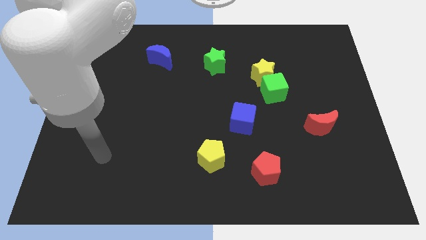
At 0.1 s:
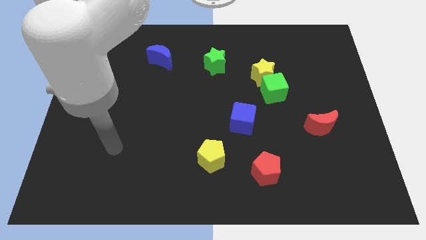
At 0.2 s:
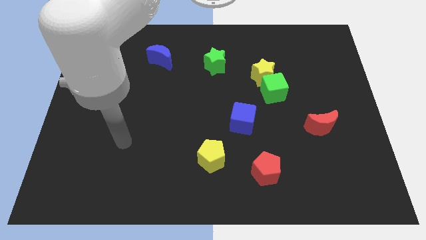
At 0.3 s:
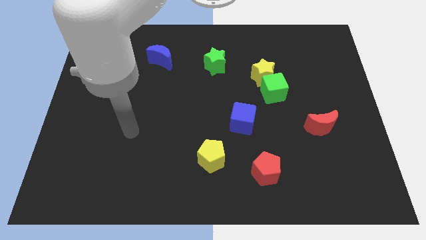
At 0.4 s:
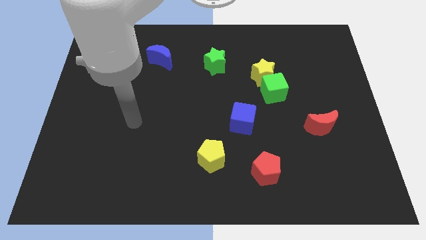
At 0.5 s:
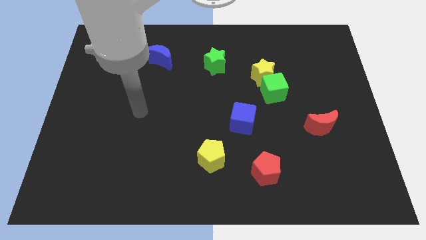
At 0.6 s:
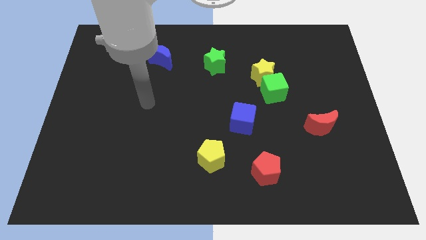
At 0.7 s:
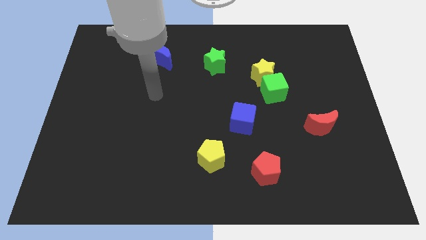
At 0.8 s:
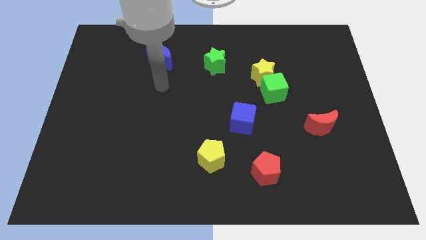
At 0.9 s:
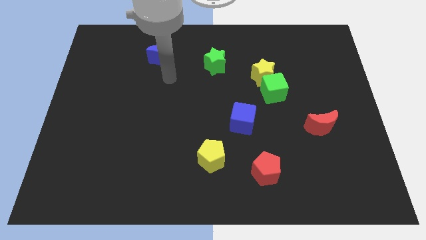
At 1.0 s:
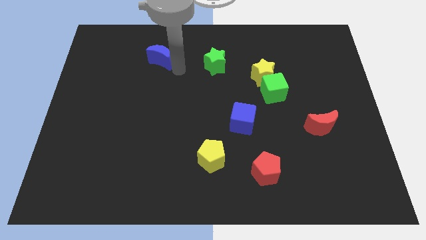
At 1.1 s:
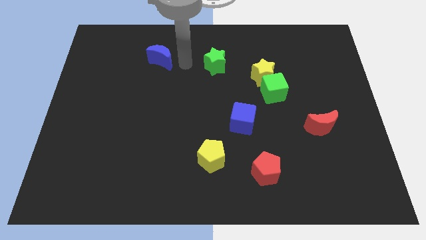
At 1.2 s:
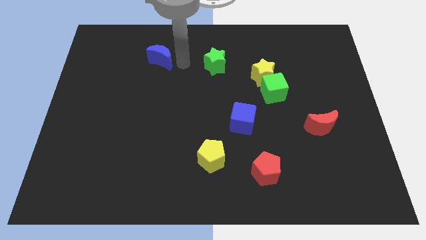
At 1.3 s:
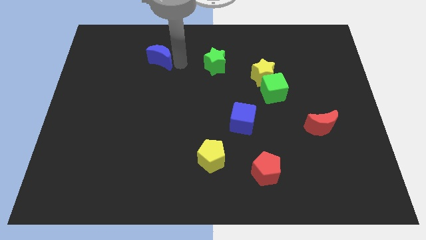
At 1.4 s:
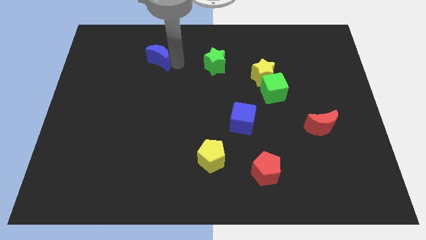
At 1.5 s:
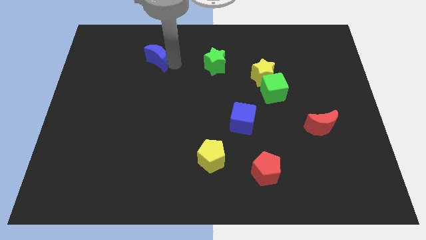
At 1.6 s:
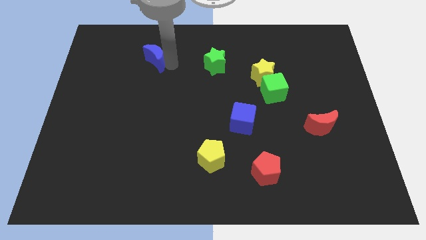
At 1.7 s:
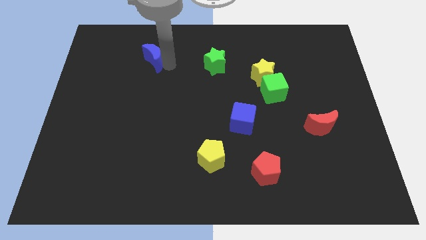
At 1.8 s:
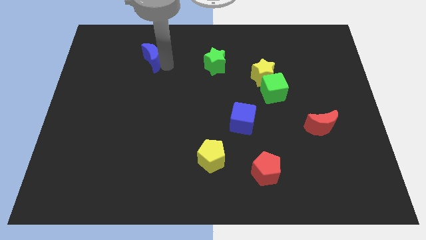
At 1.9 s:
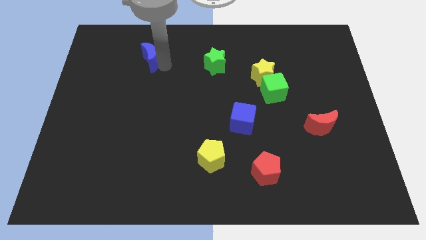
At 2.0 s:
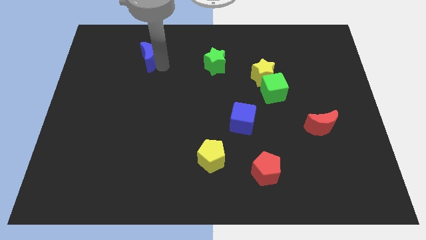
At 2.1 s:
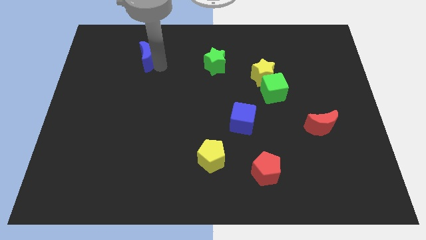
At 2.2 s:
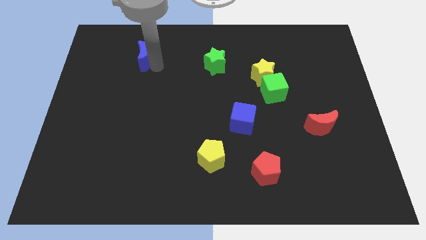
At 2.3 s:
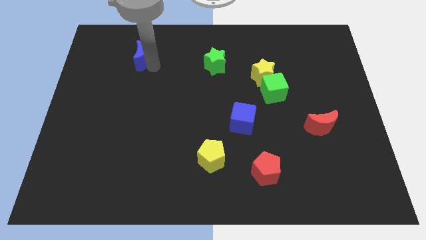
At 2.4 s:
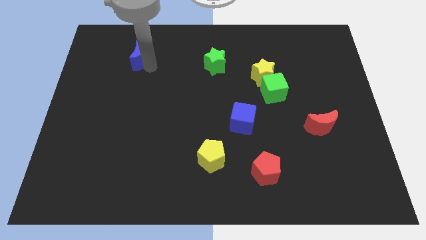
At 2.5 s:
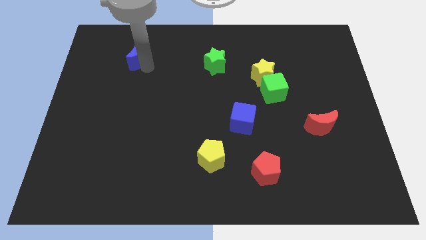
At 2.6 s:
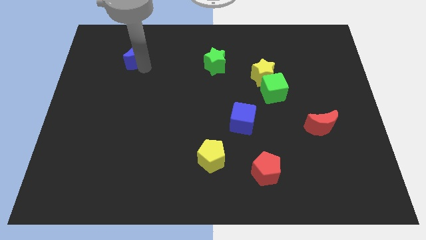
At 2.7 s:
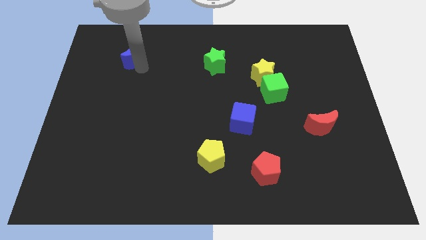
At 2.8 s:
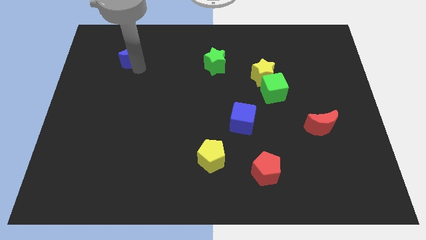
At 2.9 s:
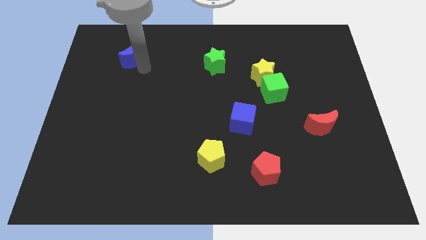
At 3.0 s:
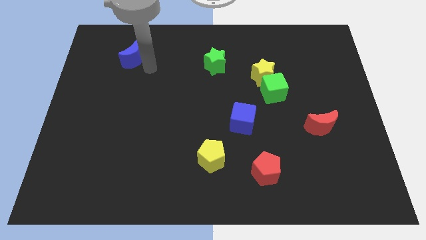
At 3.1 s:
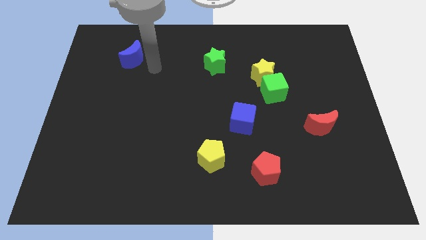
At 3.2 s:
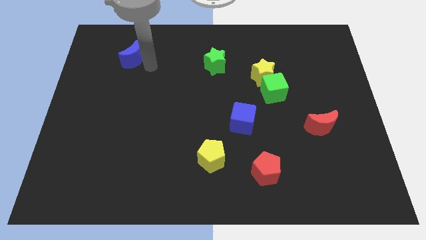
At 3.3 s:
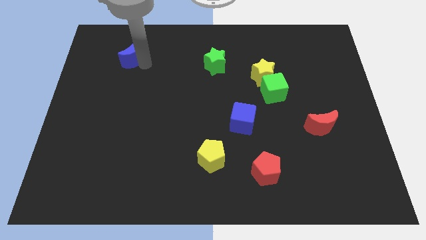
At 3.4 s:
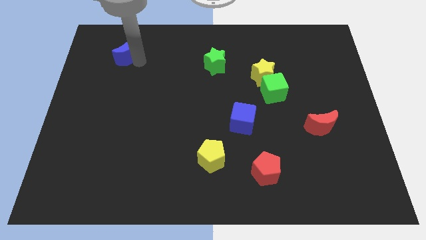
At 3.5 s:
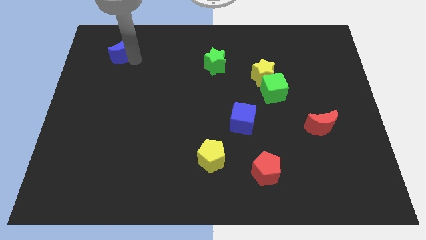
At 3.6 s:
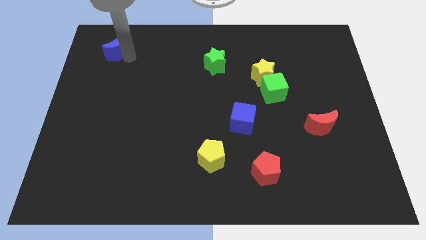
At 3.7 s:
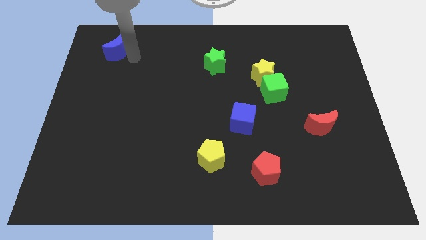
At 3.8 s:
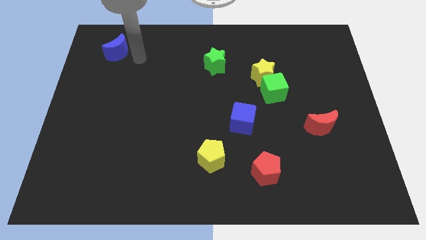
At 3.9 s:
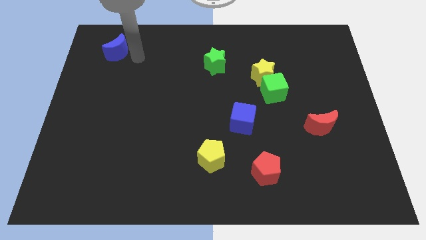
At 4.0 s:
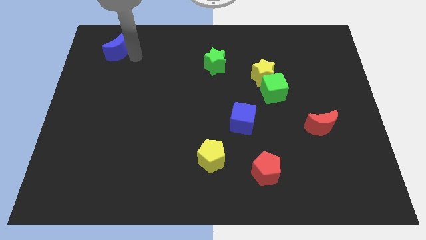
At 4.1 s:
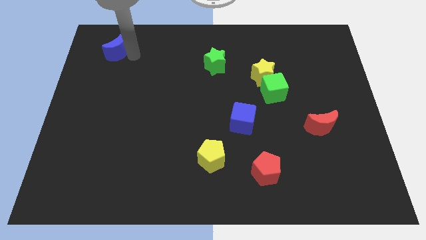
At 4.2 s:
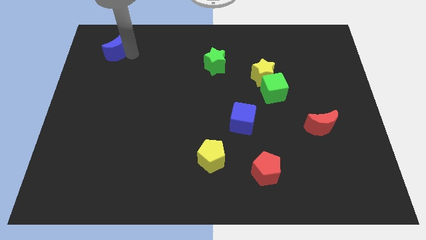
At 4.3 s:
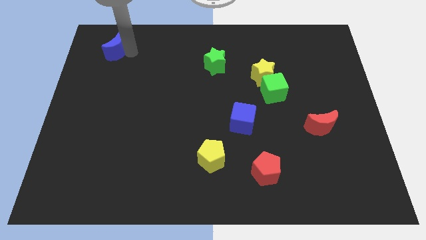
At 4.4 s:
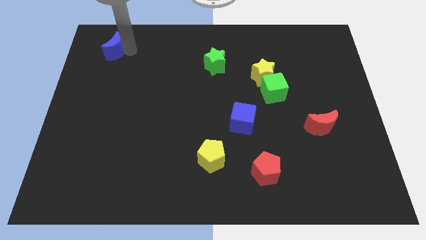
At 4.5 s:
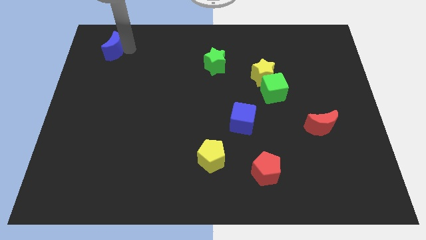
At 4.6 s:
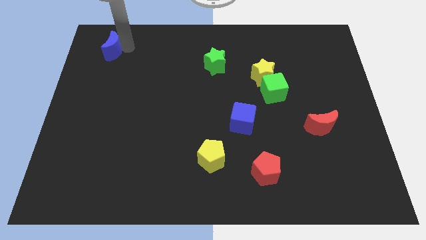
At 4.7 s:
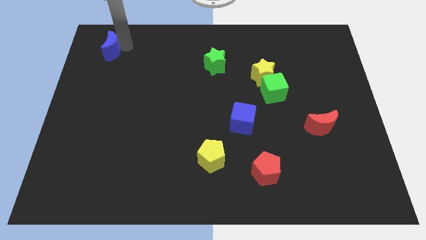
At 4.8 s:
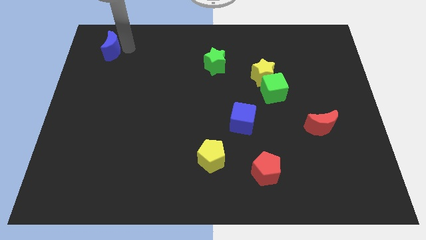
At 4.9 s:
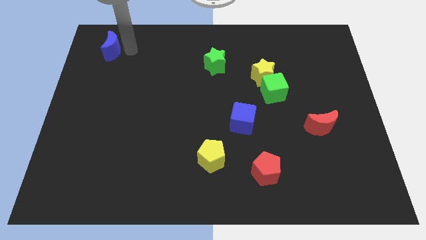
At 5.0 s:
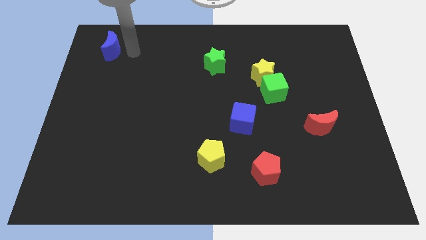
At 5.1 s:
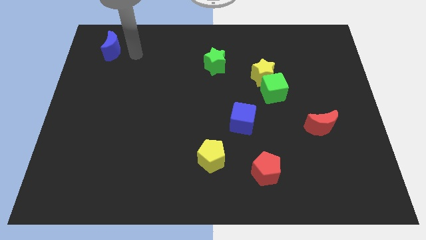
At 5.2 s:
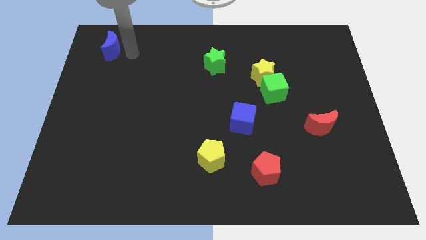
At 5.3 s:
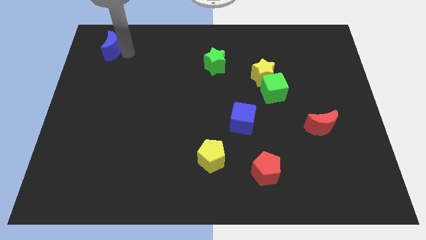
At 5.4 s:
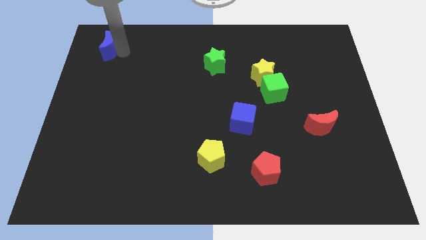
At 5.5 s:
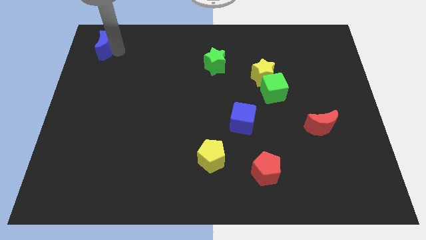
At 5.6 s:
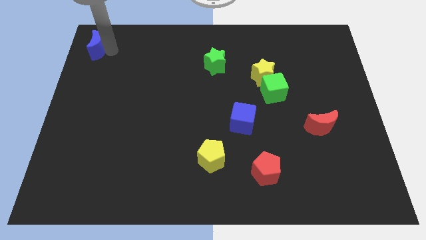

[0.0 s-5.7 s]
slide the blue moon to the upper left corner

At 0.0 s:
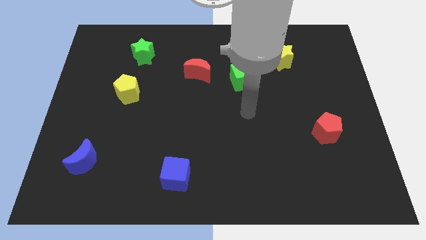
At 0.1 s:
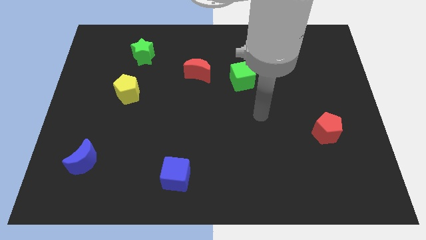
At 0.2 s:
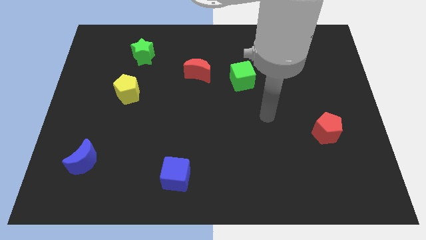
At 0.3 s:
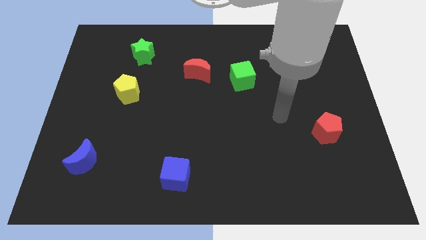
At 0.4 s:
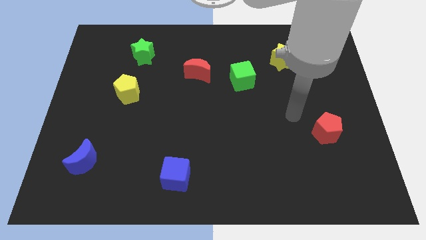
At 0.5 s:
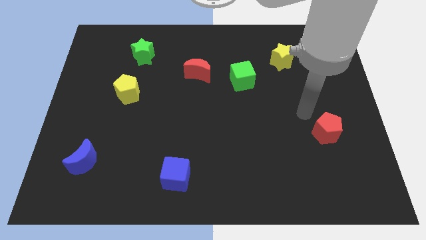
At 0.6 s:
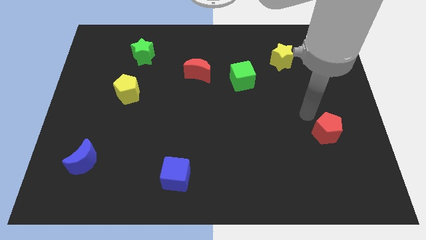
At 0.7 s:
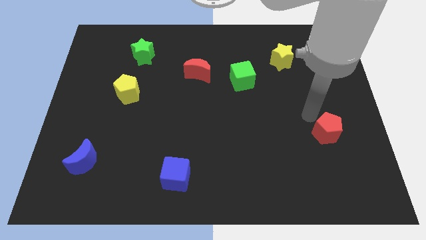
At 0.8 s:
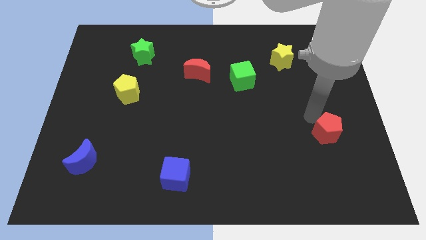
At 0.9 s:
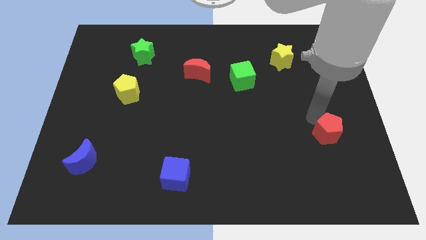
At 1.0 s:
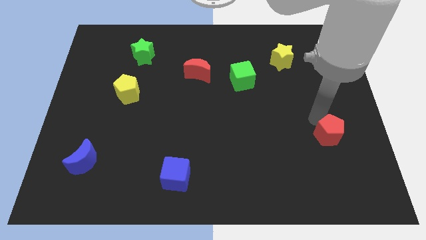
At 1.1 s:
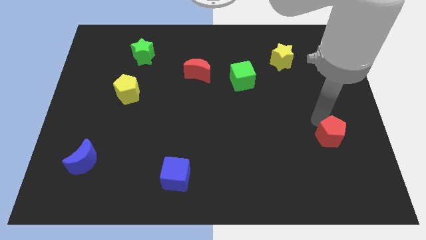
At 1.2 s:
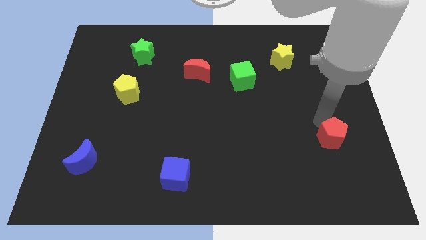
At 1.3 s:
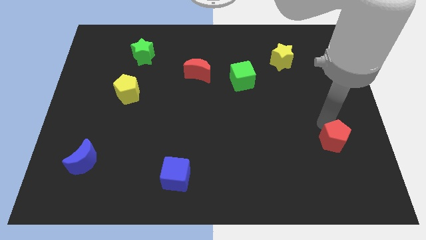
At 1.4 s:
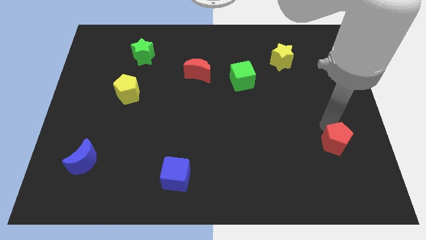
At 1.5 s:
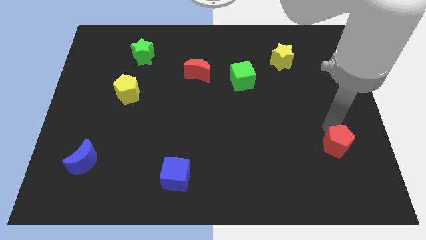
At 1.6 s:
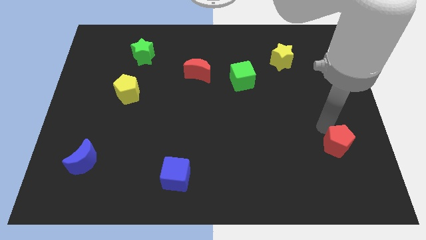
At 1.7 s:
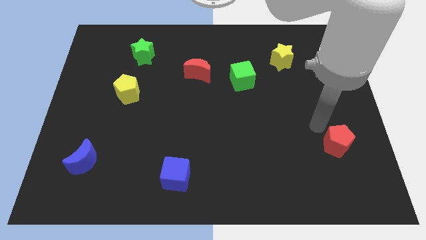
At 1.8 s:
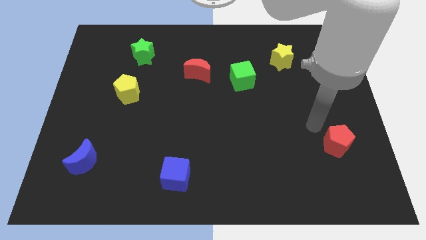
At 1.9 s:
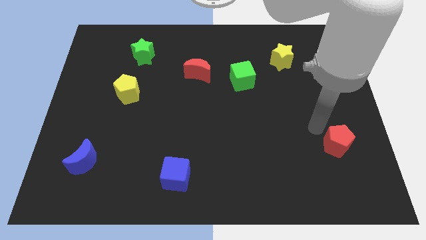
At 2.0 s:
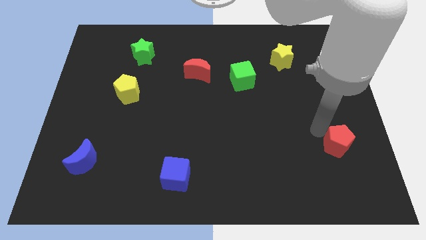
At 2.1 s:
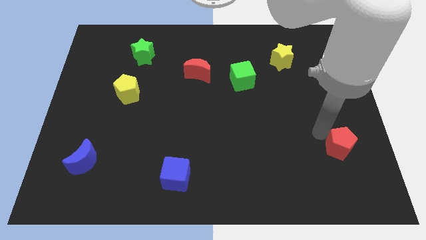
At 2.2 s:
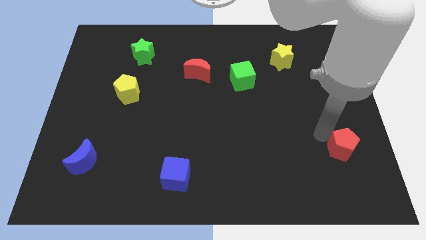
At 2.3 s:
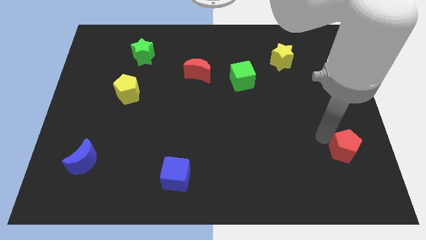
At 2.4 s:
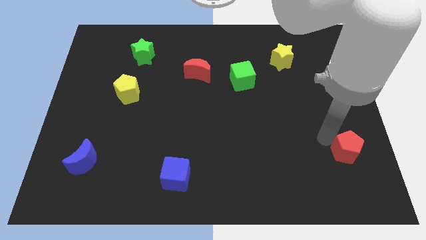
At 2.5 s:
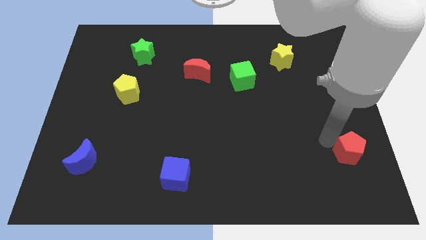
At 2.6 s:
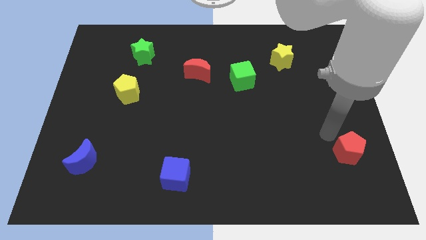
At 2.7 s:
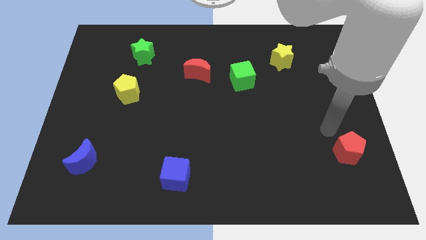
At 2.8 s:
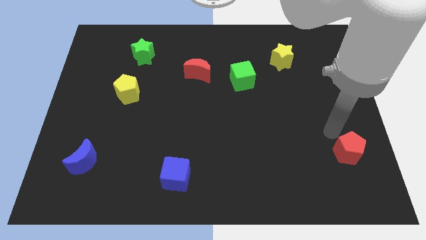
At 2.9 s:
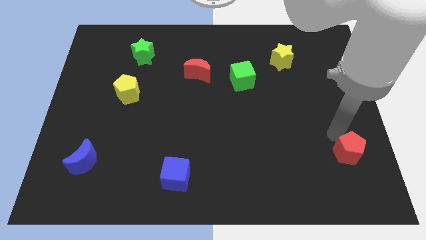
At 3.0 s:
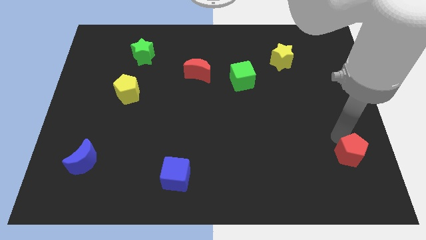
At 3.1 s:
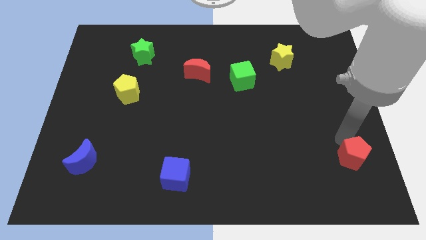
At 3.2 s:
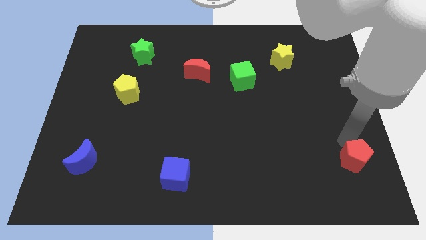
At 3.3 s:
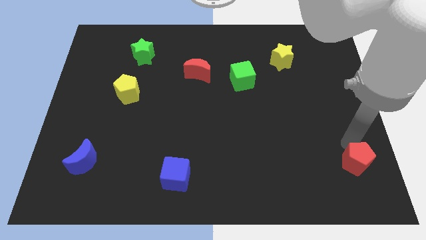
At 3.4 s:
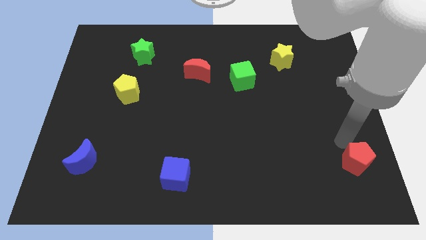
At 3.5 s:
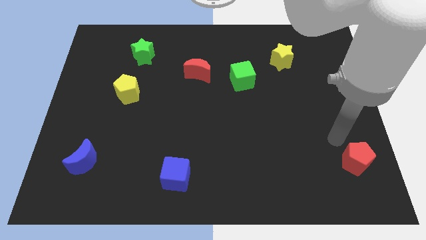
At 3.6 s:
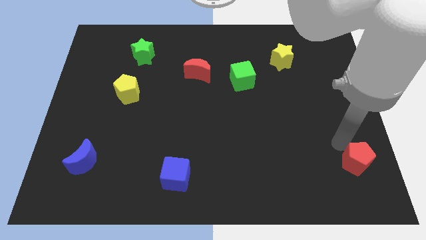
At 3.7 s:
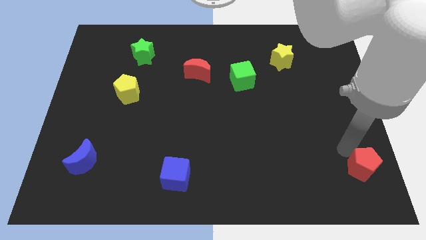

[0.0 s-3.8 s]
move the red pentagon to the bottom right
